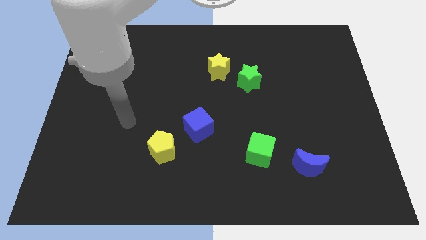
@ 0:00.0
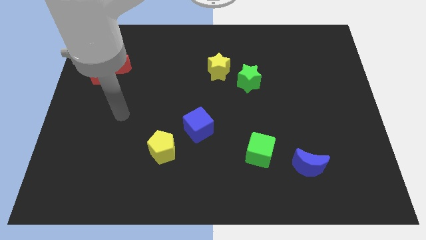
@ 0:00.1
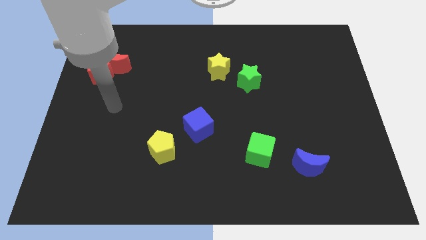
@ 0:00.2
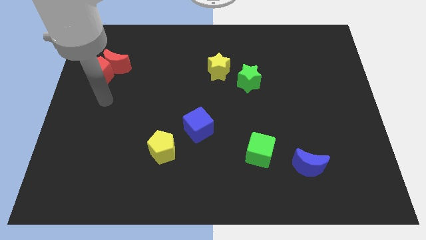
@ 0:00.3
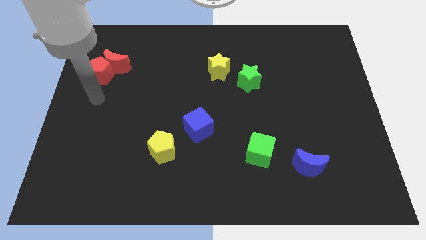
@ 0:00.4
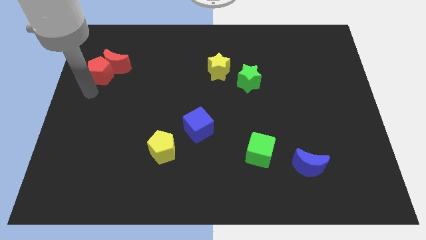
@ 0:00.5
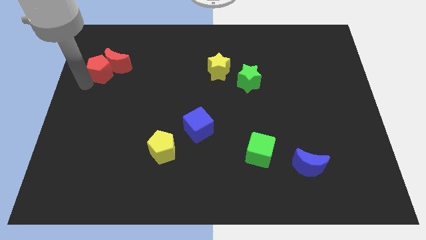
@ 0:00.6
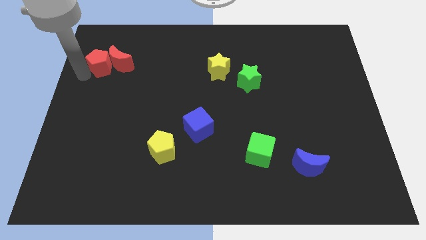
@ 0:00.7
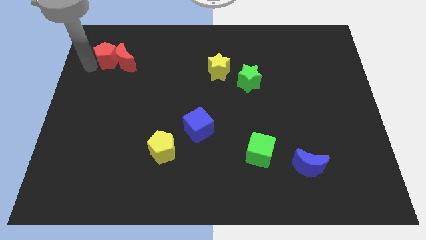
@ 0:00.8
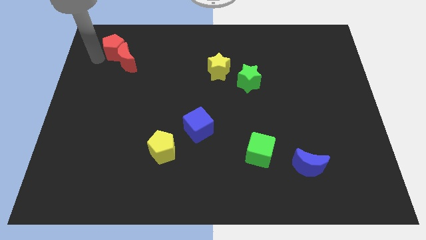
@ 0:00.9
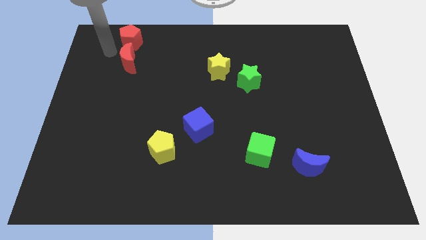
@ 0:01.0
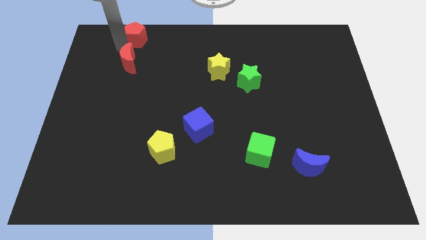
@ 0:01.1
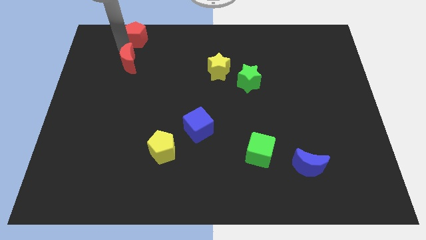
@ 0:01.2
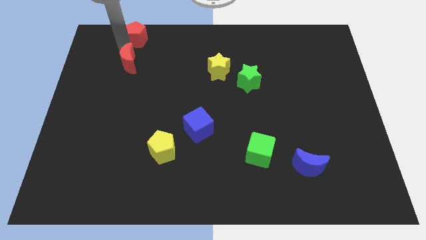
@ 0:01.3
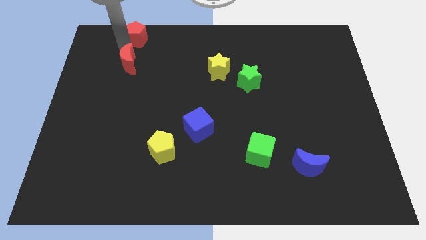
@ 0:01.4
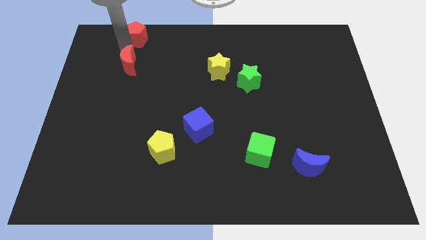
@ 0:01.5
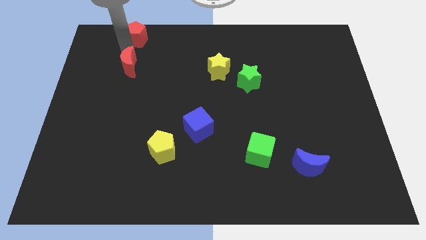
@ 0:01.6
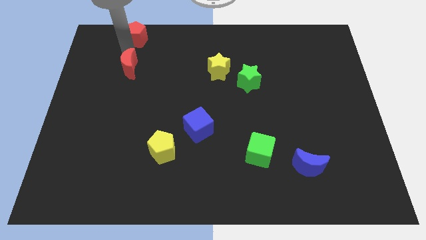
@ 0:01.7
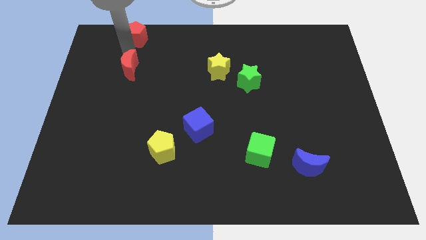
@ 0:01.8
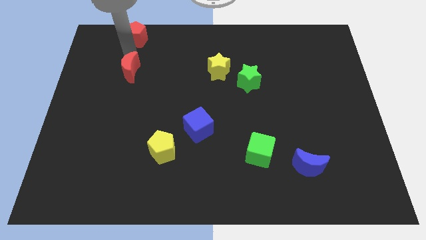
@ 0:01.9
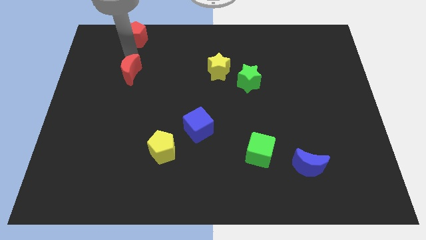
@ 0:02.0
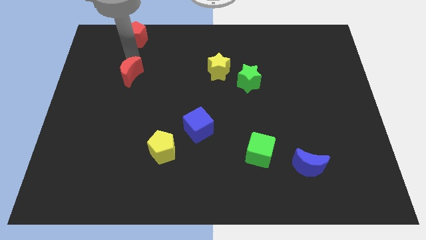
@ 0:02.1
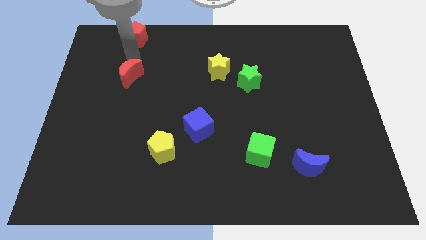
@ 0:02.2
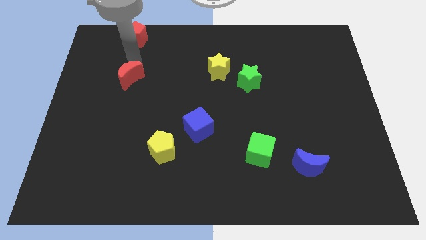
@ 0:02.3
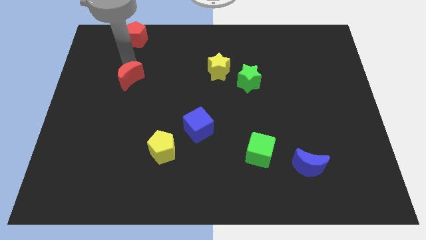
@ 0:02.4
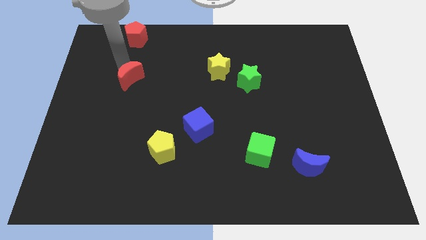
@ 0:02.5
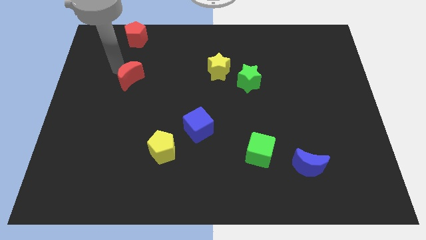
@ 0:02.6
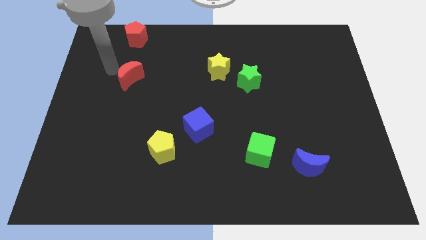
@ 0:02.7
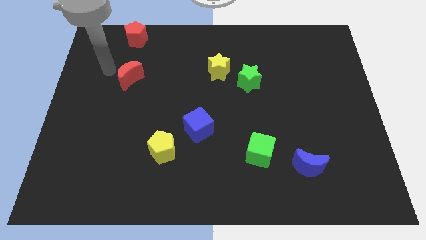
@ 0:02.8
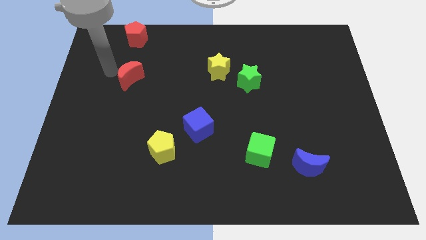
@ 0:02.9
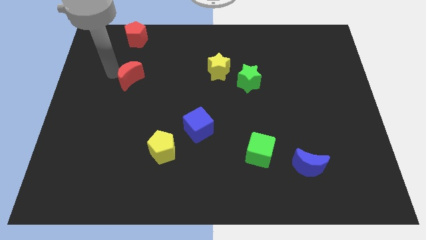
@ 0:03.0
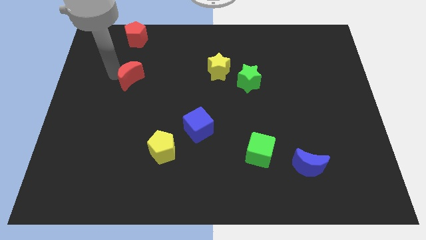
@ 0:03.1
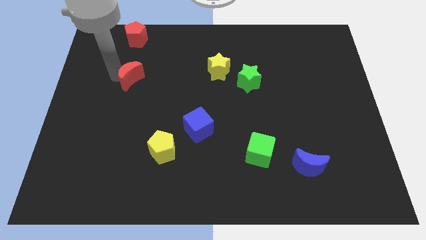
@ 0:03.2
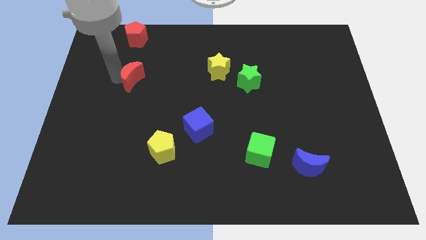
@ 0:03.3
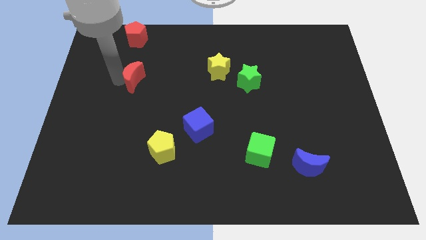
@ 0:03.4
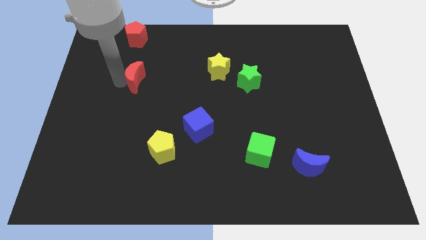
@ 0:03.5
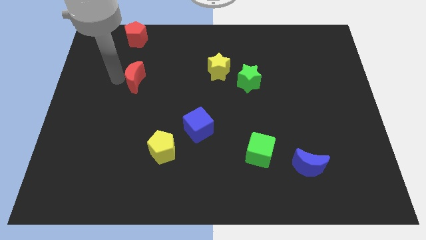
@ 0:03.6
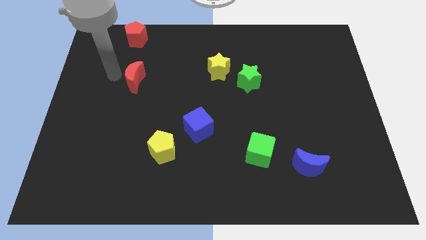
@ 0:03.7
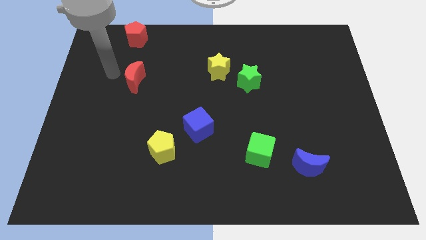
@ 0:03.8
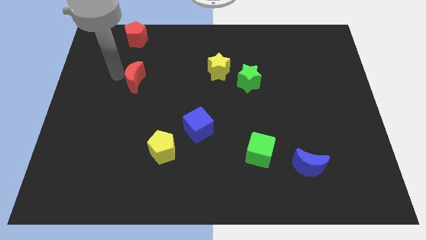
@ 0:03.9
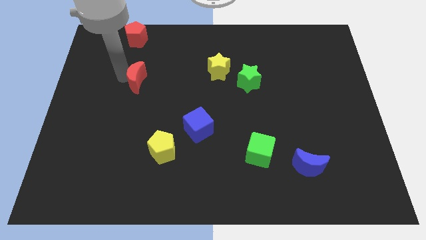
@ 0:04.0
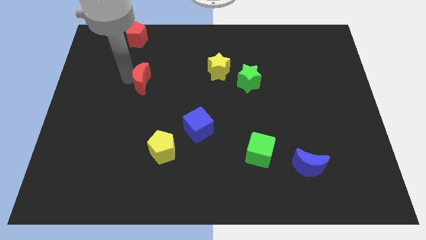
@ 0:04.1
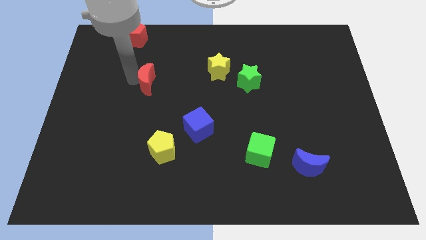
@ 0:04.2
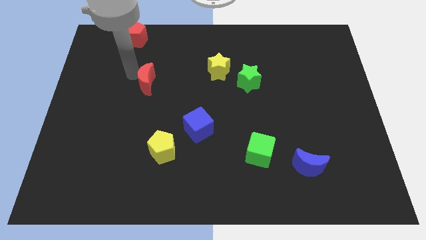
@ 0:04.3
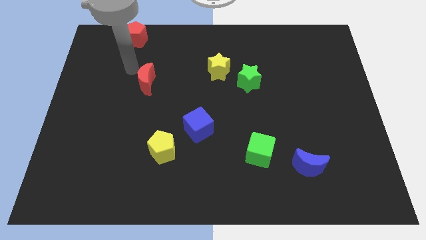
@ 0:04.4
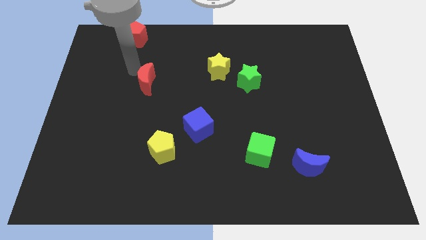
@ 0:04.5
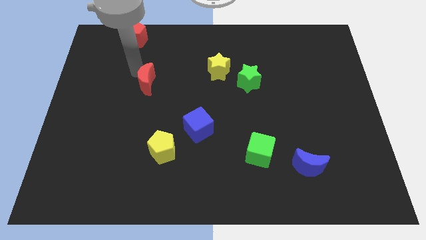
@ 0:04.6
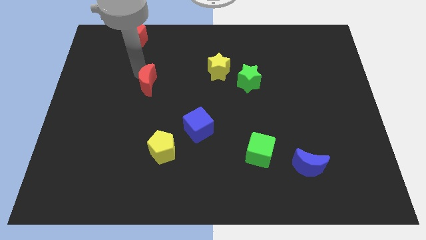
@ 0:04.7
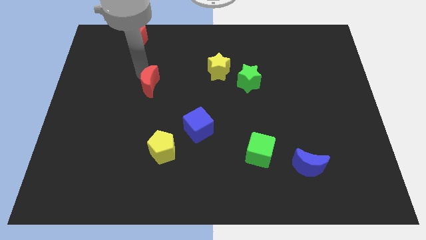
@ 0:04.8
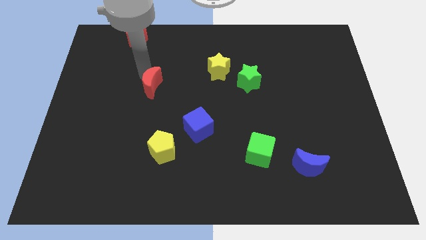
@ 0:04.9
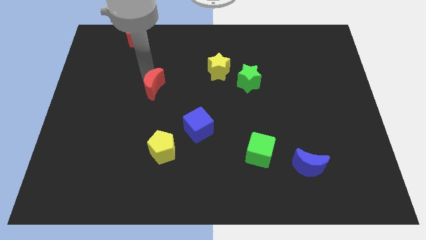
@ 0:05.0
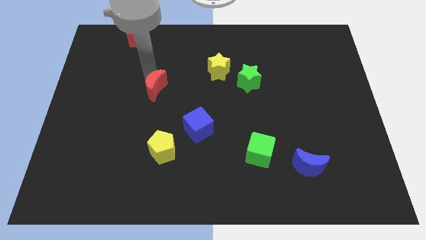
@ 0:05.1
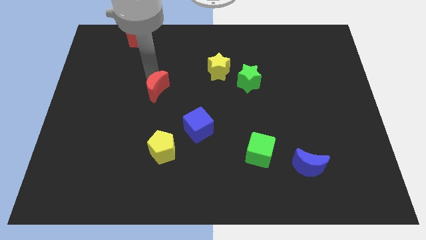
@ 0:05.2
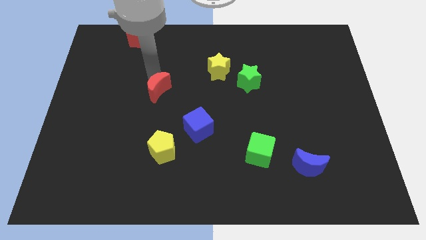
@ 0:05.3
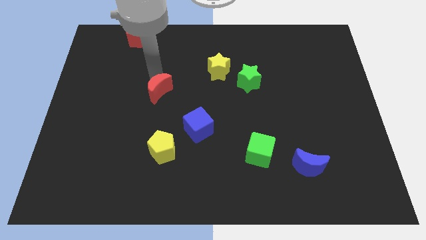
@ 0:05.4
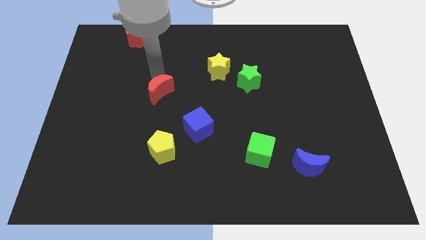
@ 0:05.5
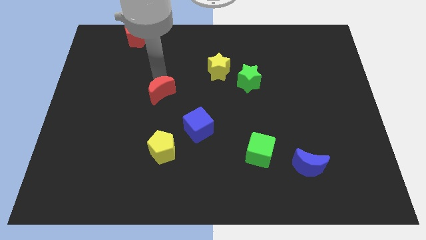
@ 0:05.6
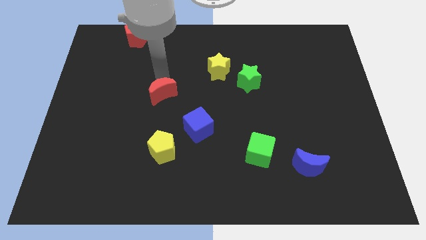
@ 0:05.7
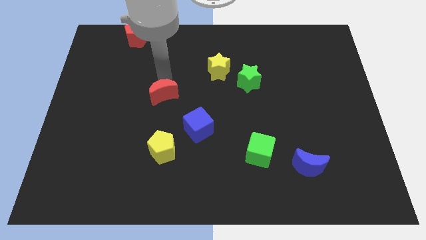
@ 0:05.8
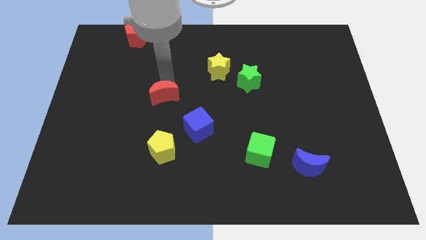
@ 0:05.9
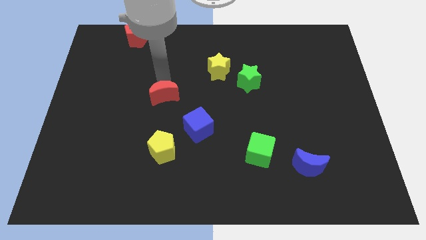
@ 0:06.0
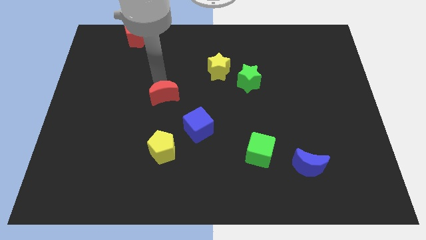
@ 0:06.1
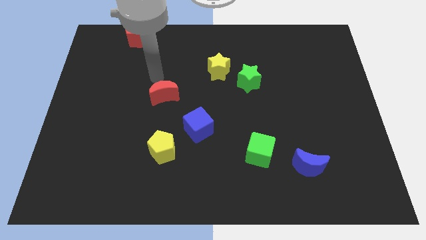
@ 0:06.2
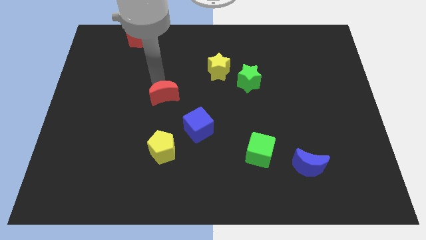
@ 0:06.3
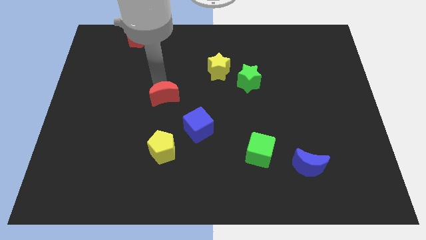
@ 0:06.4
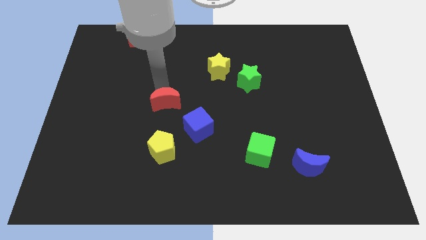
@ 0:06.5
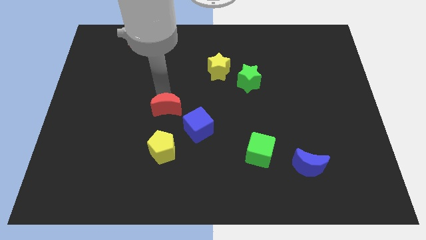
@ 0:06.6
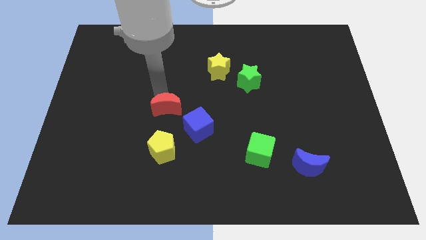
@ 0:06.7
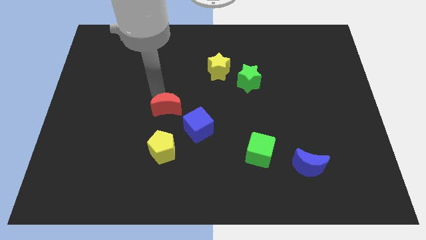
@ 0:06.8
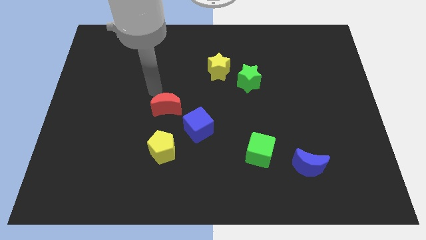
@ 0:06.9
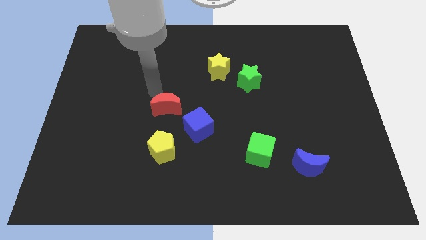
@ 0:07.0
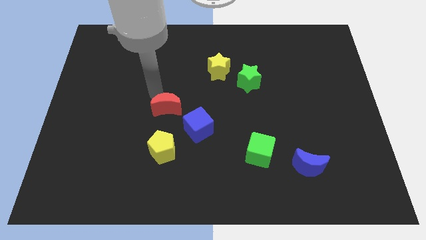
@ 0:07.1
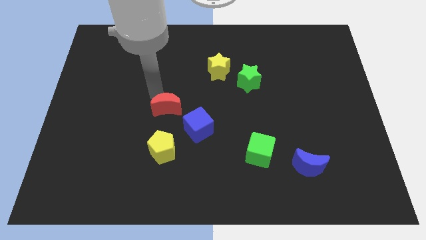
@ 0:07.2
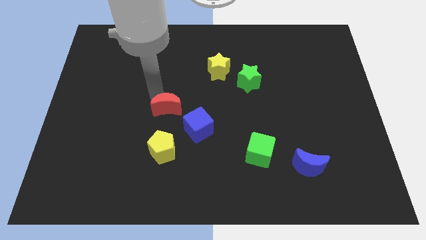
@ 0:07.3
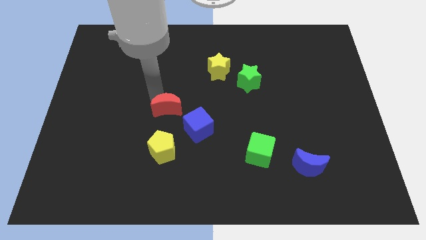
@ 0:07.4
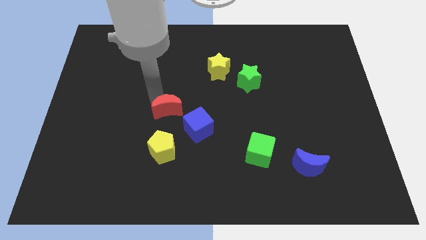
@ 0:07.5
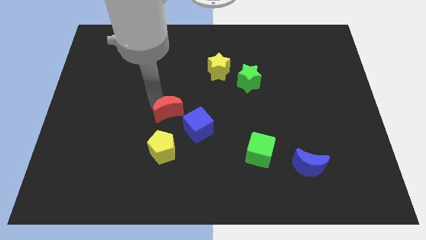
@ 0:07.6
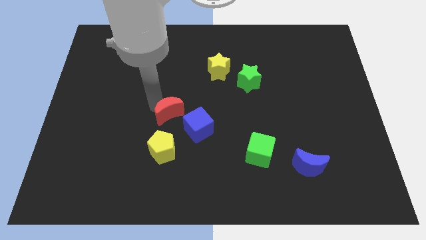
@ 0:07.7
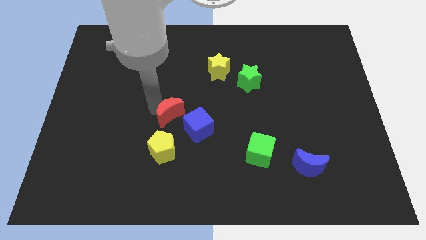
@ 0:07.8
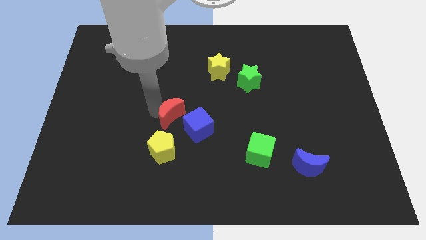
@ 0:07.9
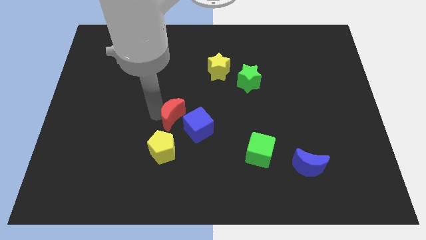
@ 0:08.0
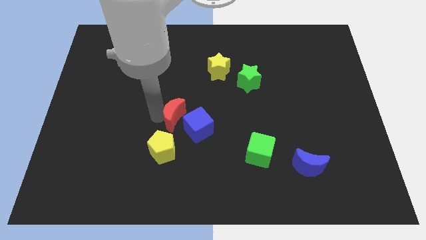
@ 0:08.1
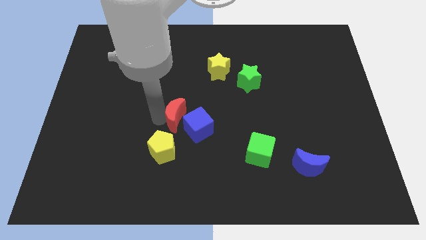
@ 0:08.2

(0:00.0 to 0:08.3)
push the red moon close to the blue cube

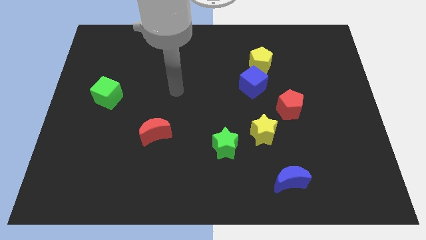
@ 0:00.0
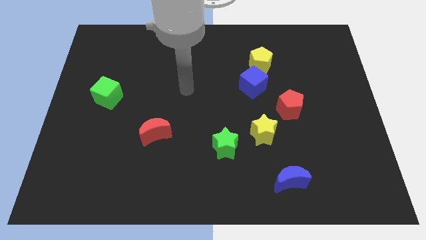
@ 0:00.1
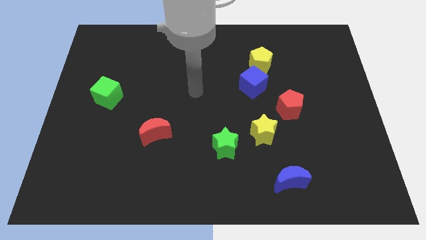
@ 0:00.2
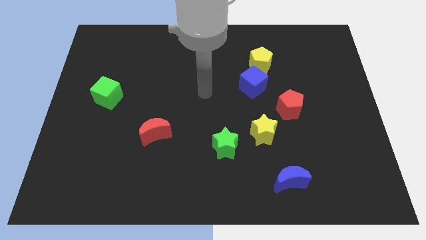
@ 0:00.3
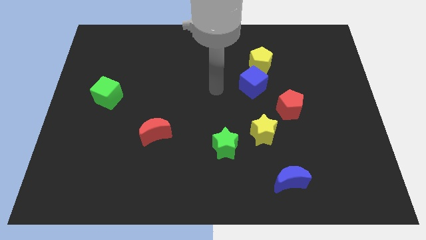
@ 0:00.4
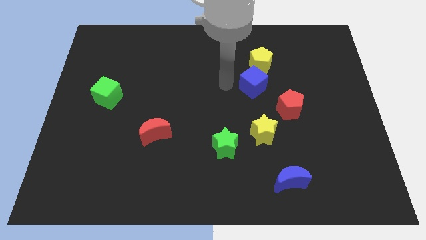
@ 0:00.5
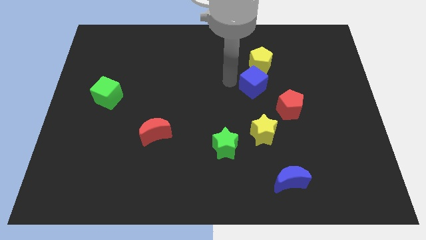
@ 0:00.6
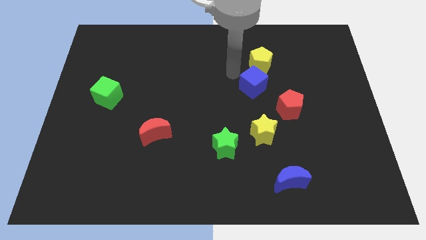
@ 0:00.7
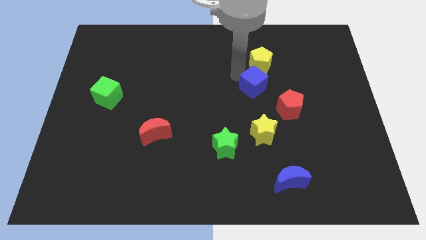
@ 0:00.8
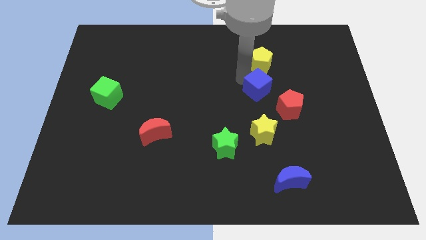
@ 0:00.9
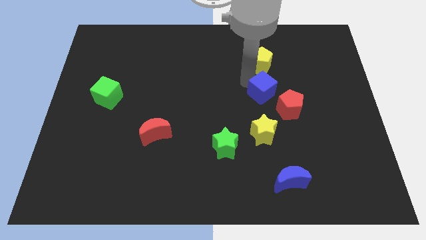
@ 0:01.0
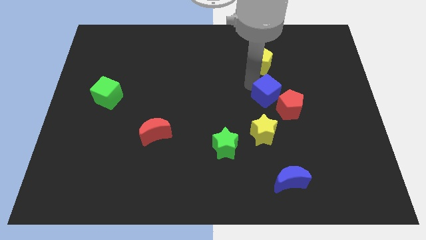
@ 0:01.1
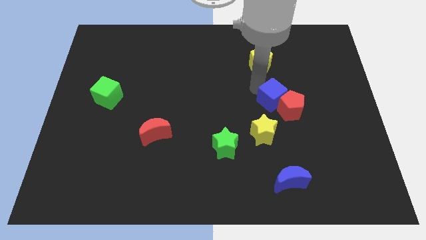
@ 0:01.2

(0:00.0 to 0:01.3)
slide the blue cube to the red pentagon
